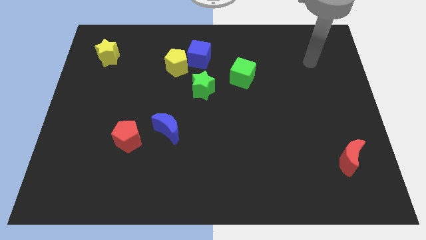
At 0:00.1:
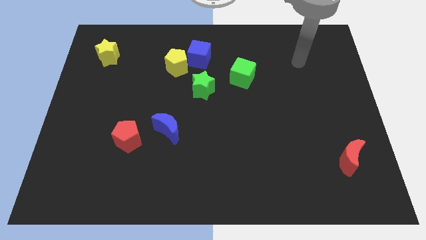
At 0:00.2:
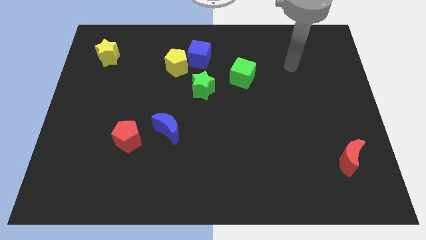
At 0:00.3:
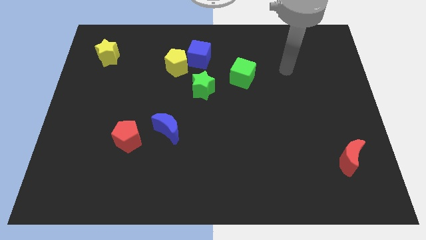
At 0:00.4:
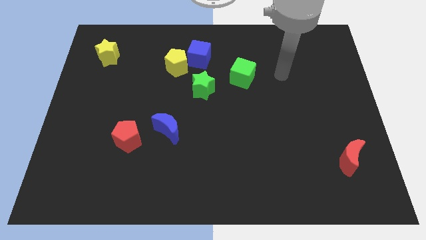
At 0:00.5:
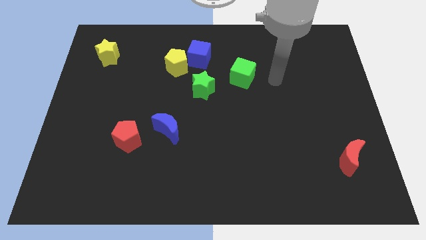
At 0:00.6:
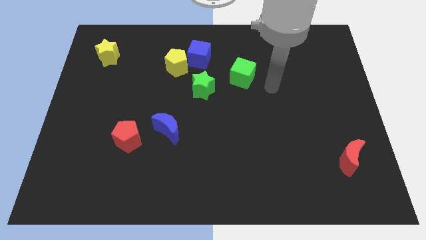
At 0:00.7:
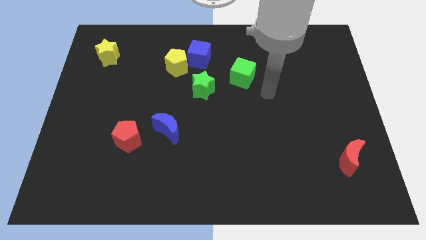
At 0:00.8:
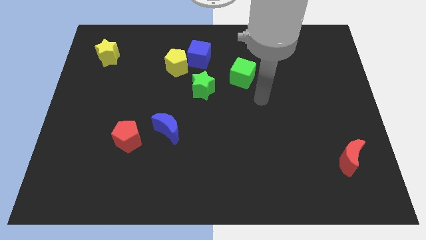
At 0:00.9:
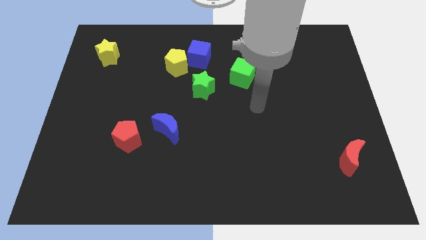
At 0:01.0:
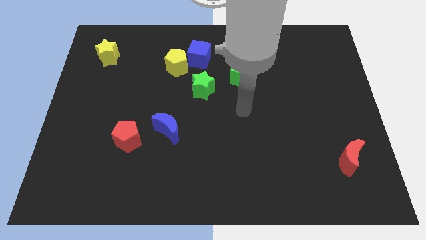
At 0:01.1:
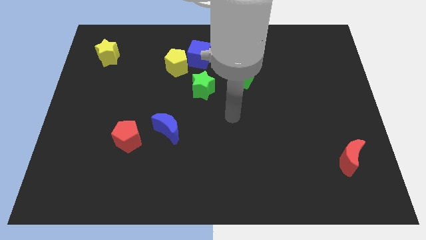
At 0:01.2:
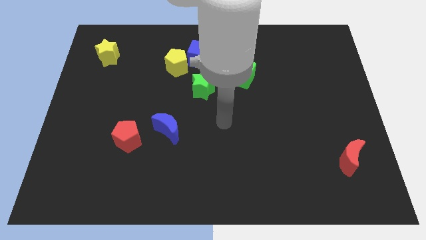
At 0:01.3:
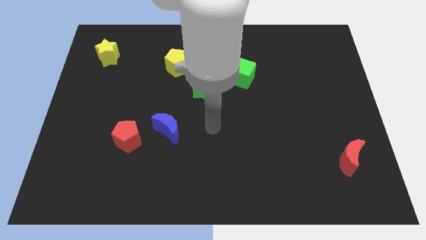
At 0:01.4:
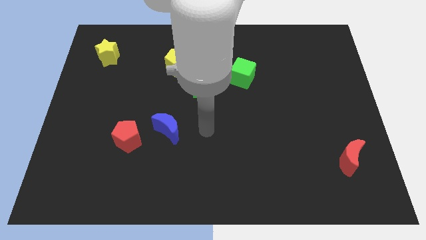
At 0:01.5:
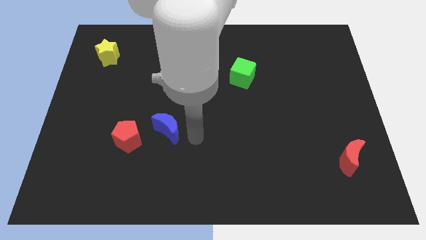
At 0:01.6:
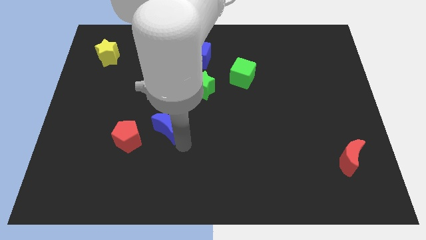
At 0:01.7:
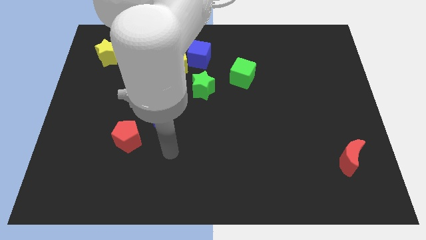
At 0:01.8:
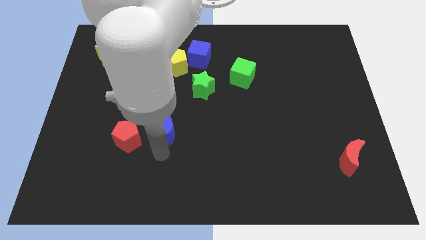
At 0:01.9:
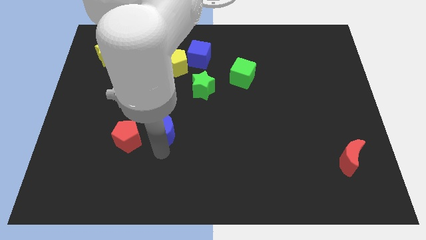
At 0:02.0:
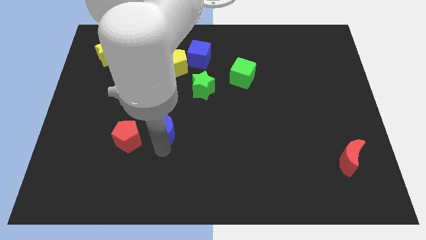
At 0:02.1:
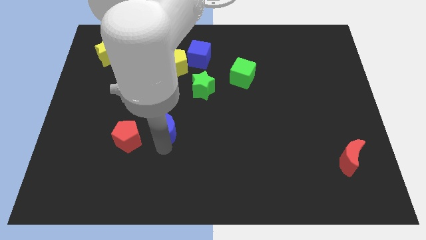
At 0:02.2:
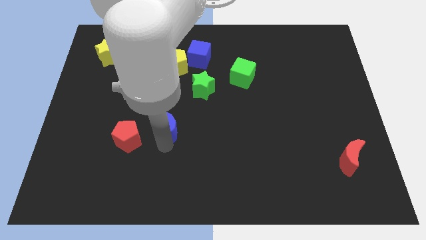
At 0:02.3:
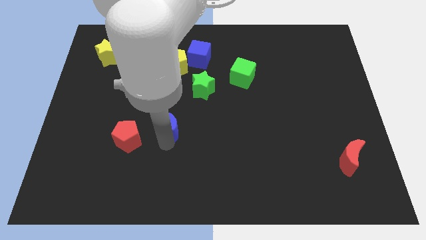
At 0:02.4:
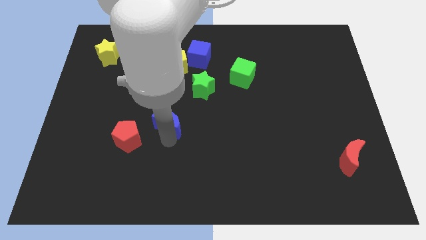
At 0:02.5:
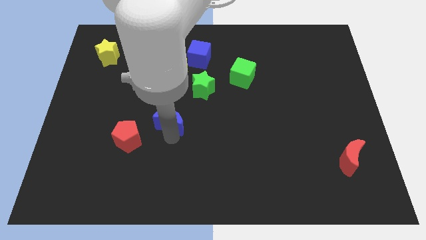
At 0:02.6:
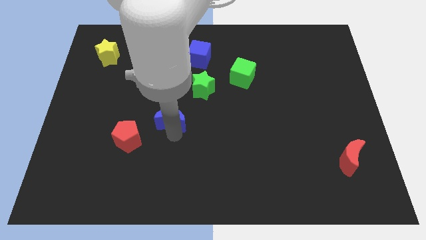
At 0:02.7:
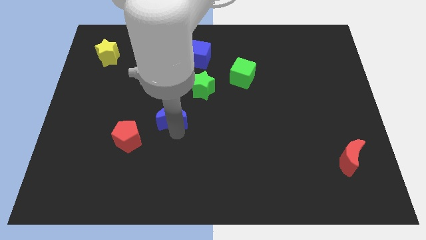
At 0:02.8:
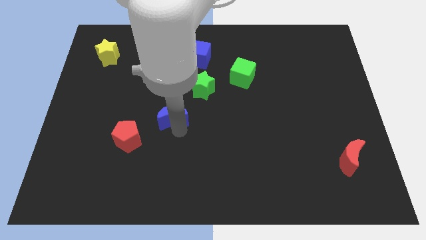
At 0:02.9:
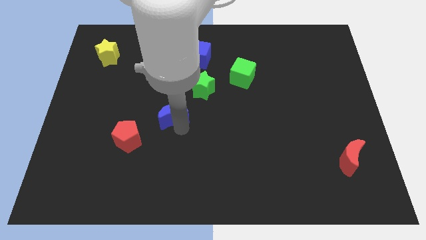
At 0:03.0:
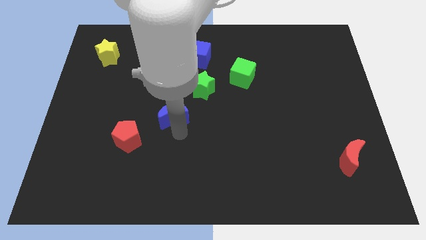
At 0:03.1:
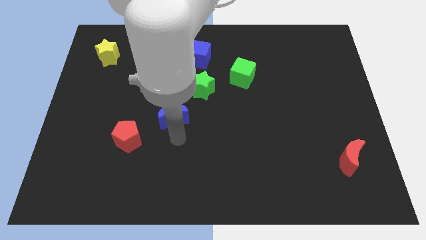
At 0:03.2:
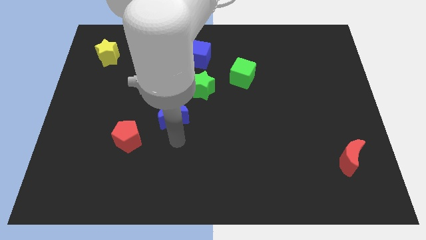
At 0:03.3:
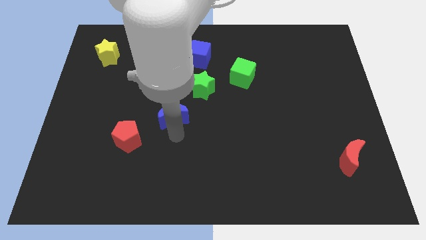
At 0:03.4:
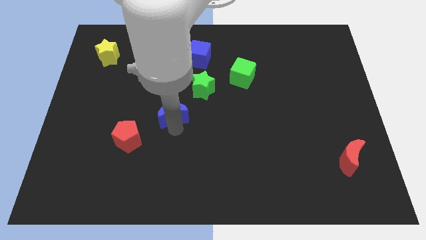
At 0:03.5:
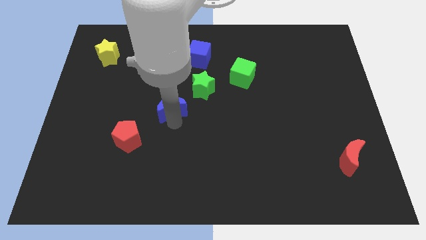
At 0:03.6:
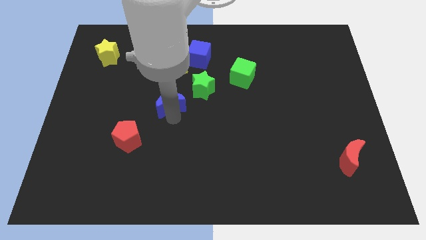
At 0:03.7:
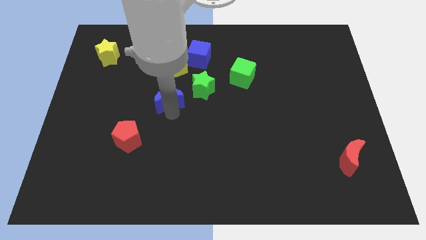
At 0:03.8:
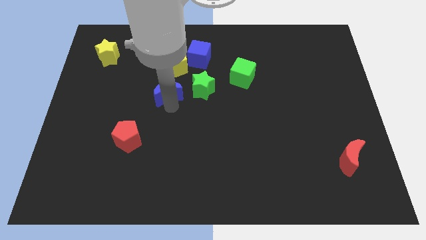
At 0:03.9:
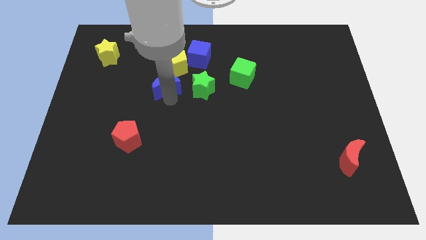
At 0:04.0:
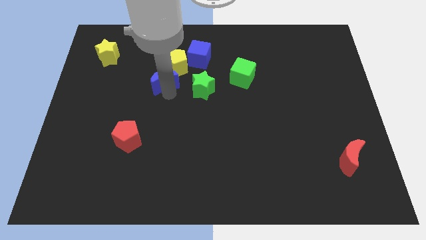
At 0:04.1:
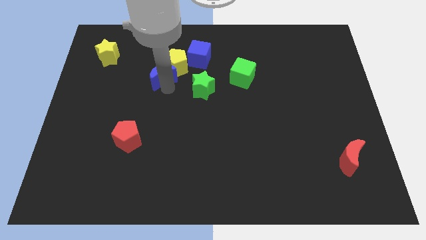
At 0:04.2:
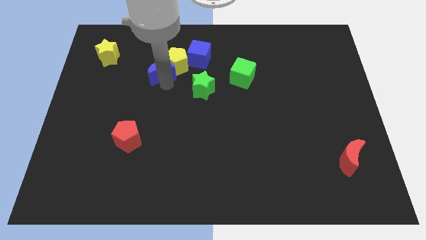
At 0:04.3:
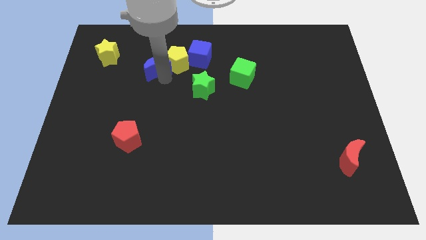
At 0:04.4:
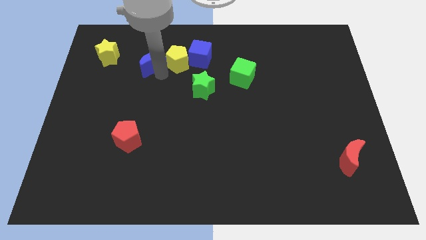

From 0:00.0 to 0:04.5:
move the blue moon to the right of the yellow star

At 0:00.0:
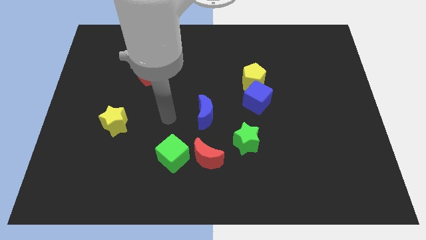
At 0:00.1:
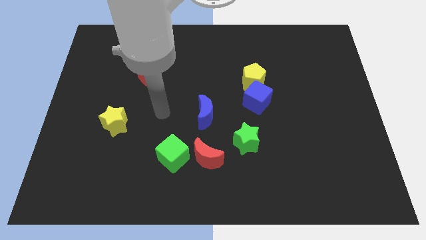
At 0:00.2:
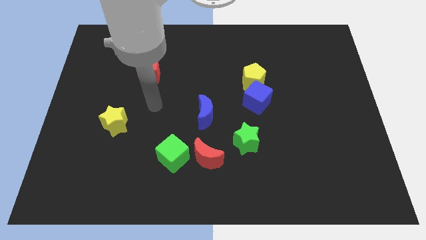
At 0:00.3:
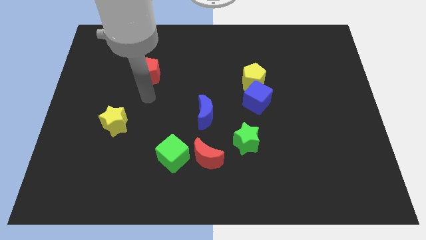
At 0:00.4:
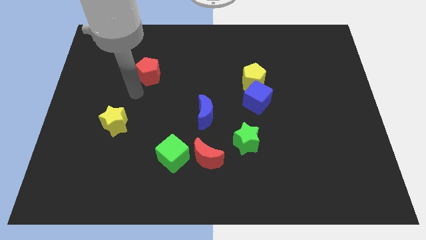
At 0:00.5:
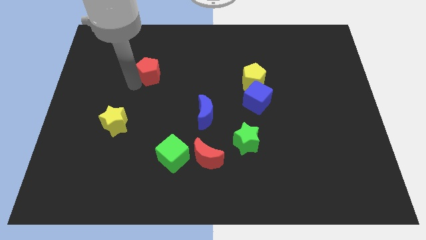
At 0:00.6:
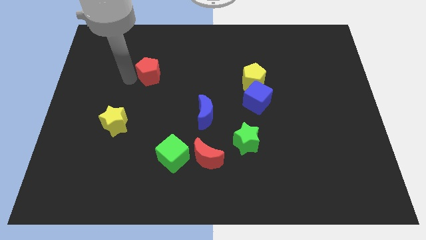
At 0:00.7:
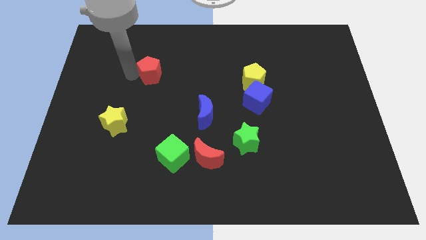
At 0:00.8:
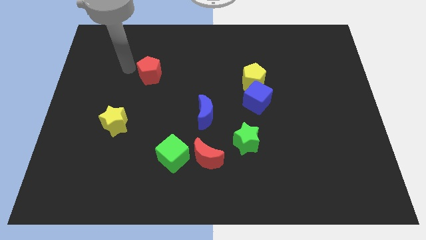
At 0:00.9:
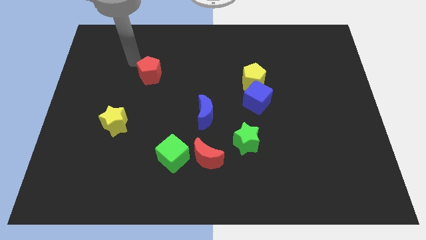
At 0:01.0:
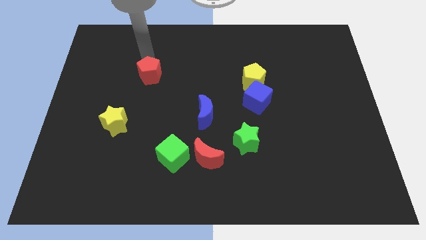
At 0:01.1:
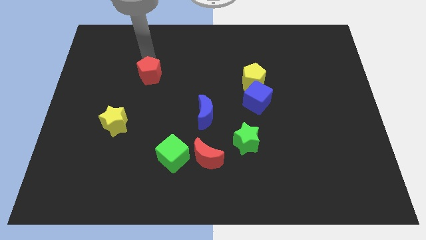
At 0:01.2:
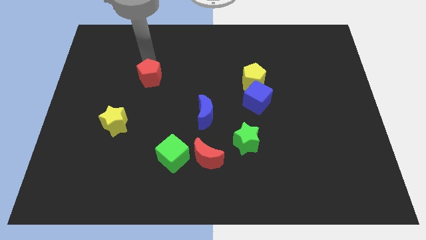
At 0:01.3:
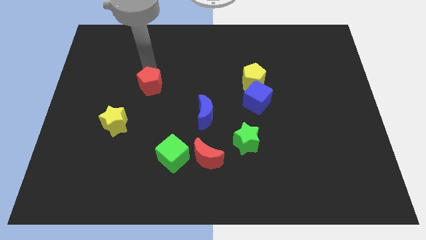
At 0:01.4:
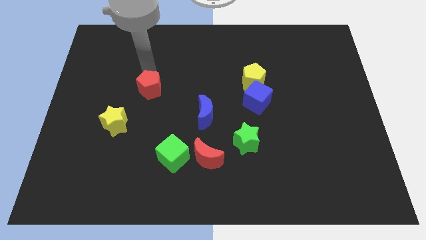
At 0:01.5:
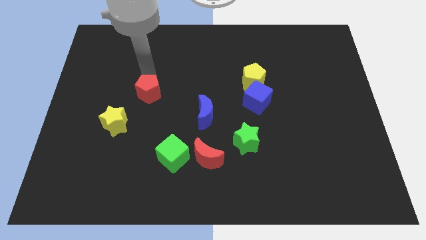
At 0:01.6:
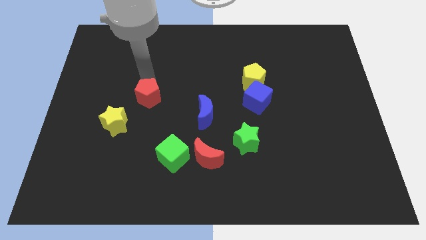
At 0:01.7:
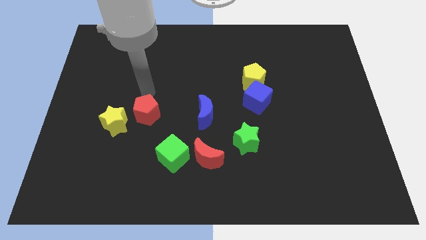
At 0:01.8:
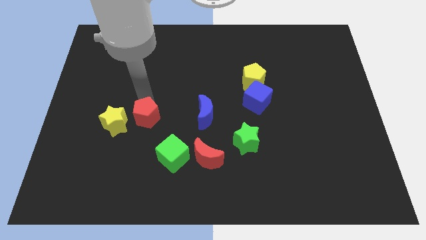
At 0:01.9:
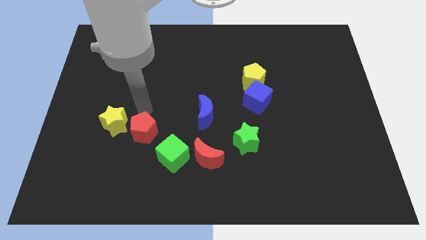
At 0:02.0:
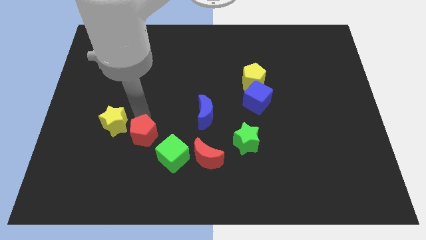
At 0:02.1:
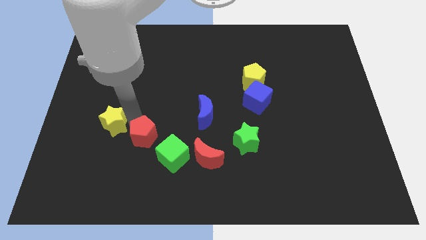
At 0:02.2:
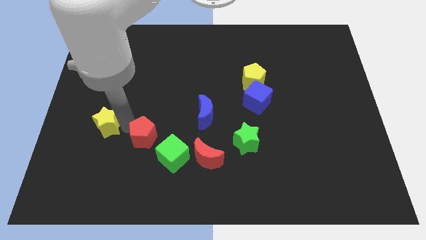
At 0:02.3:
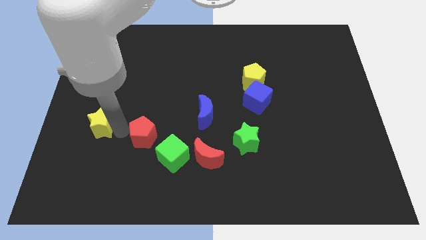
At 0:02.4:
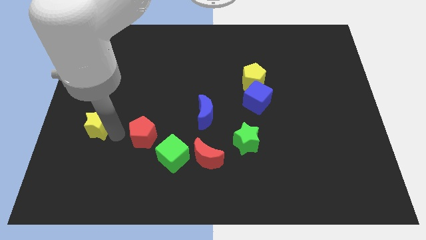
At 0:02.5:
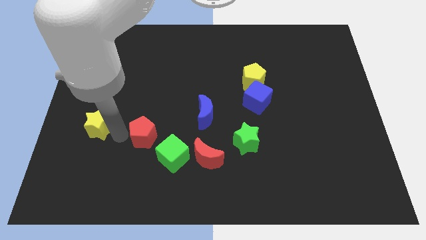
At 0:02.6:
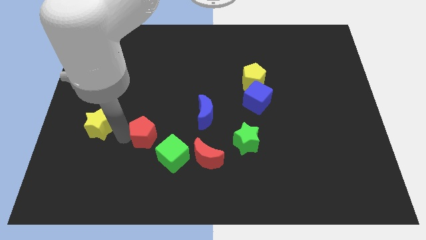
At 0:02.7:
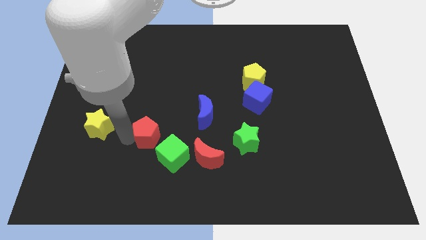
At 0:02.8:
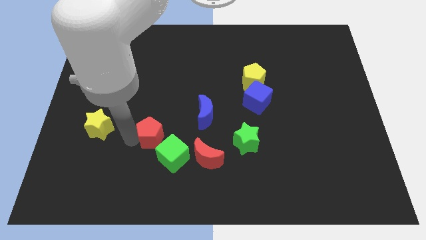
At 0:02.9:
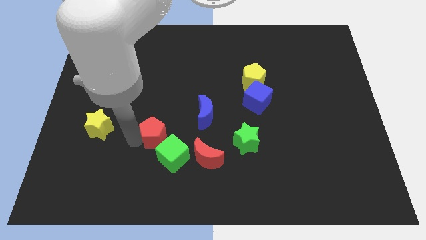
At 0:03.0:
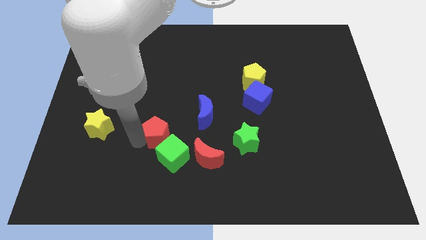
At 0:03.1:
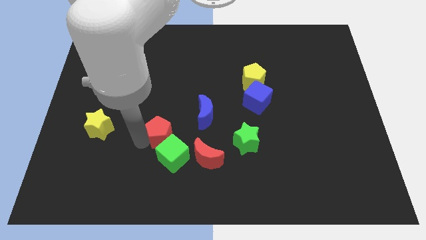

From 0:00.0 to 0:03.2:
slide the red pentagon to the top left of the red moon

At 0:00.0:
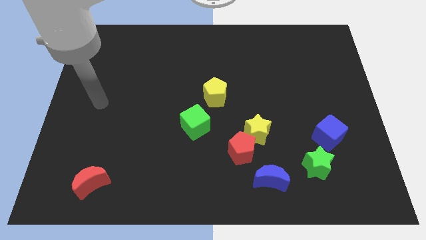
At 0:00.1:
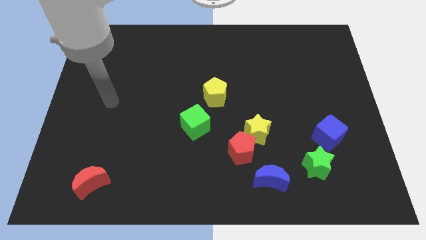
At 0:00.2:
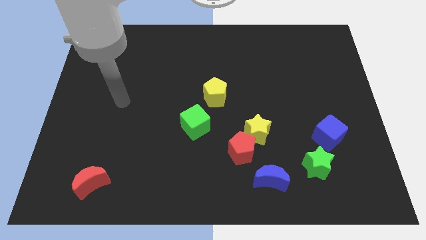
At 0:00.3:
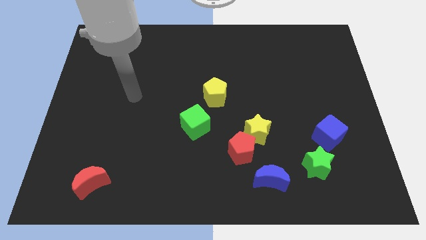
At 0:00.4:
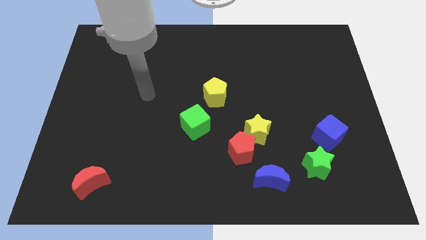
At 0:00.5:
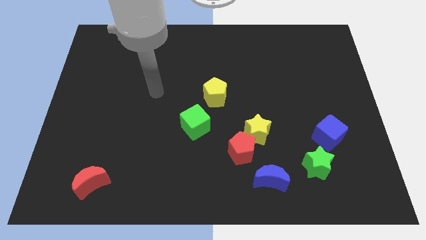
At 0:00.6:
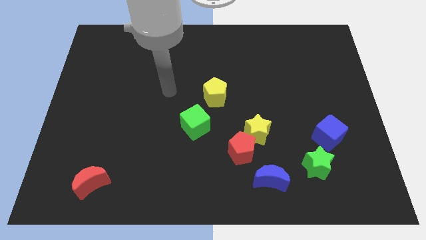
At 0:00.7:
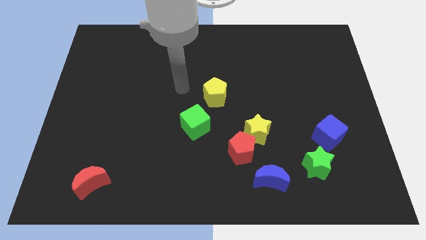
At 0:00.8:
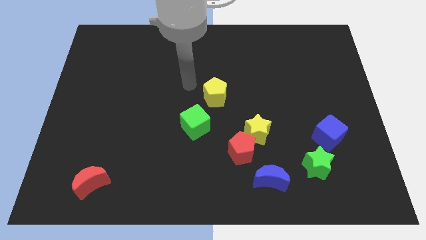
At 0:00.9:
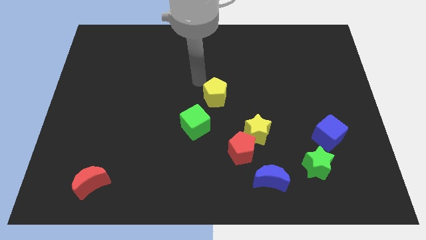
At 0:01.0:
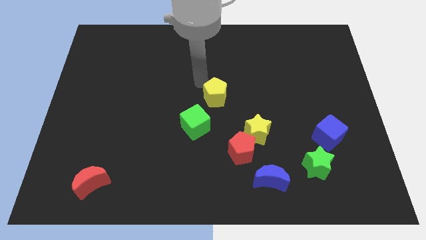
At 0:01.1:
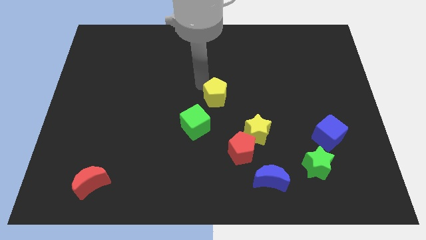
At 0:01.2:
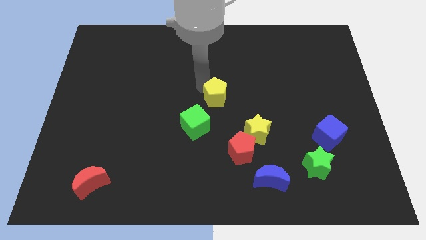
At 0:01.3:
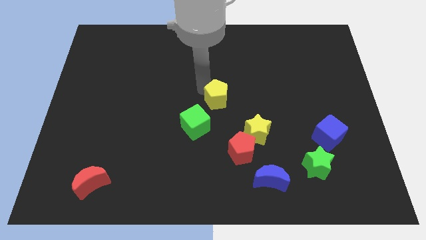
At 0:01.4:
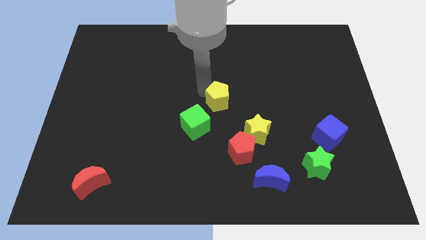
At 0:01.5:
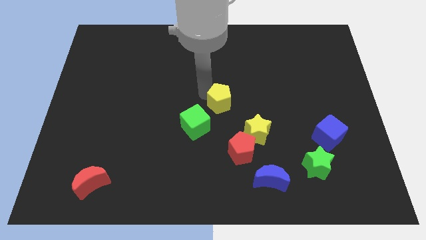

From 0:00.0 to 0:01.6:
push the yellow pentagon diagonally up and to the left of the yellow star
